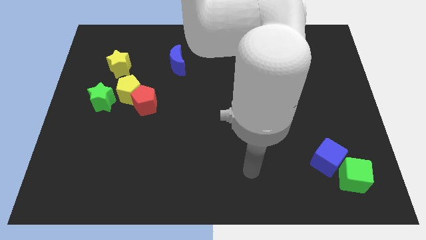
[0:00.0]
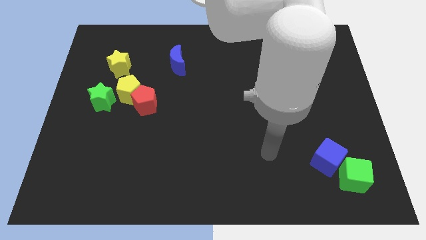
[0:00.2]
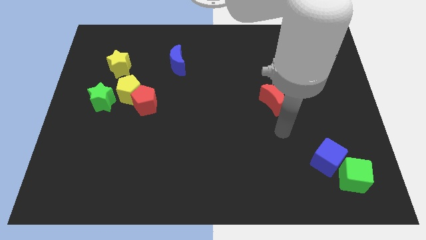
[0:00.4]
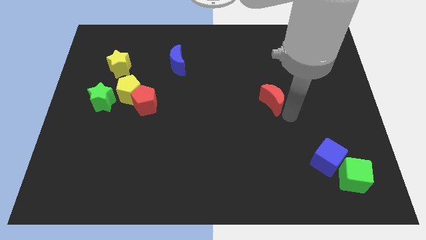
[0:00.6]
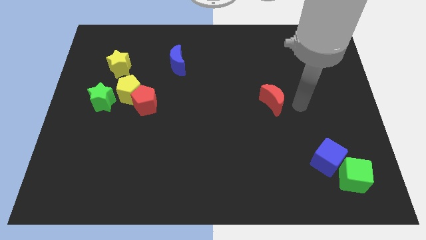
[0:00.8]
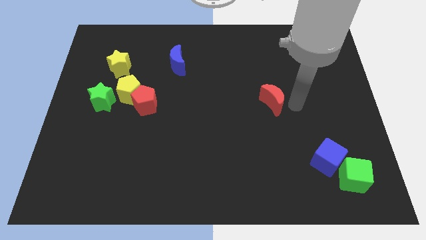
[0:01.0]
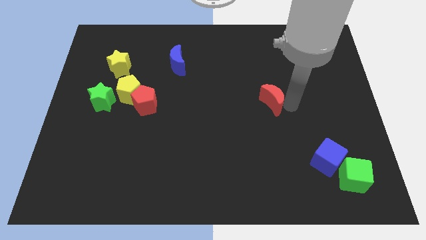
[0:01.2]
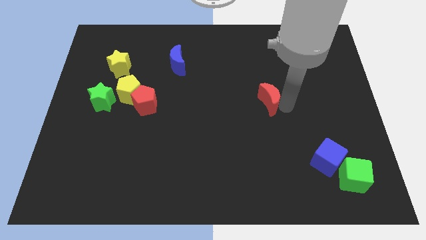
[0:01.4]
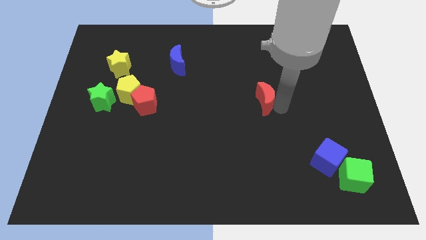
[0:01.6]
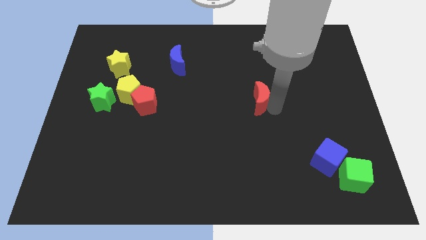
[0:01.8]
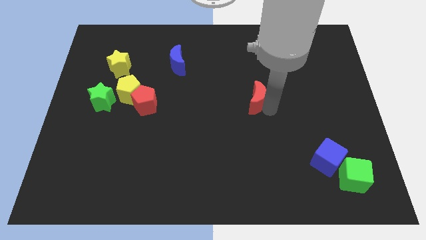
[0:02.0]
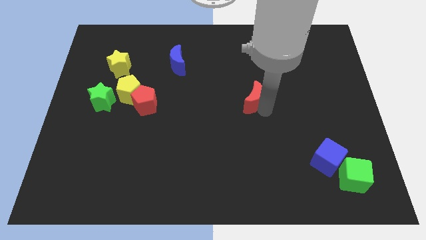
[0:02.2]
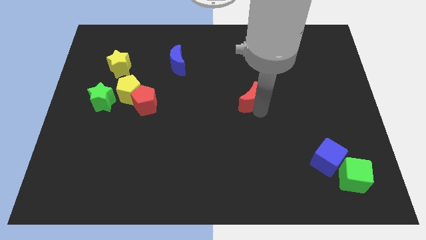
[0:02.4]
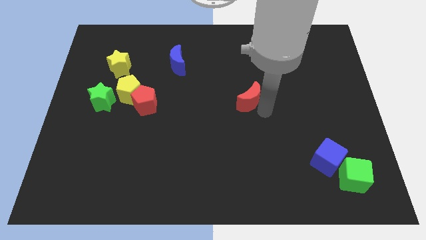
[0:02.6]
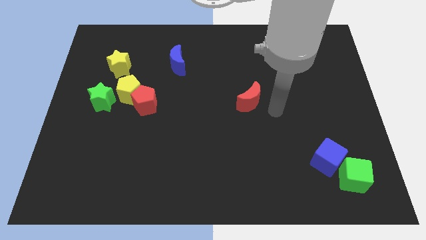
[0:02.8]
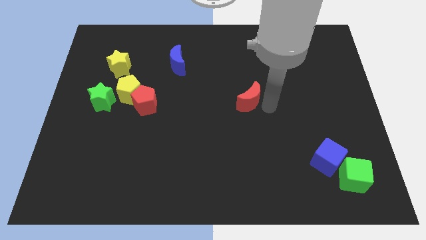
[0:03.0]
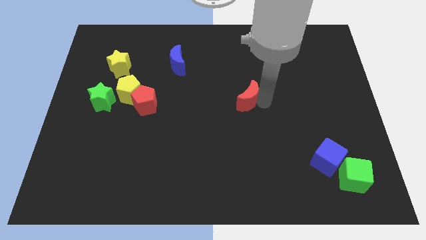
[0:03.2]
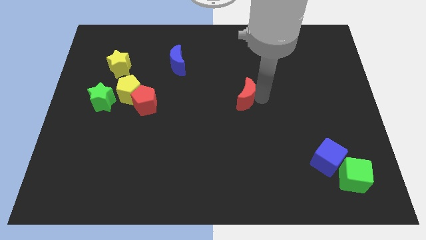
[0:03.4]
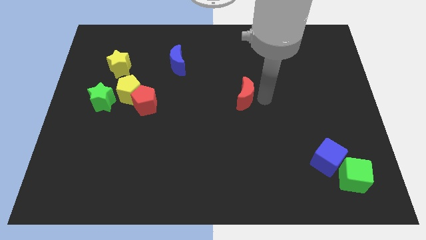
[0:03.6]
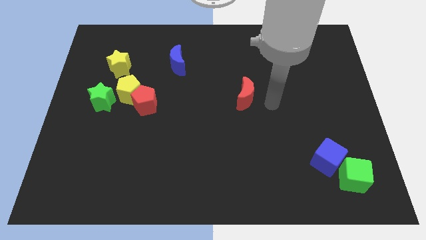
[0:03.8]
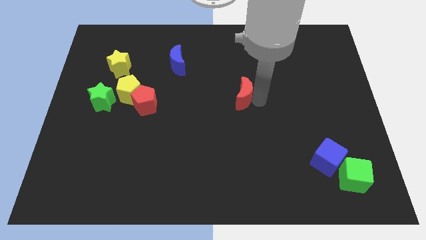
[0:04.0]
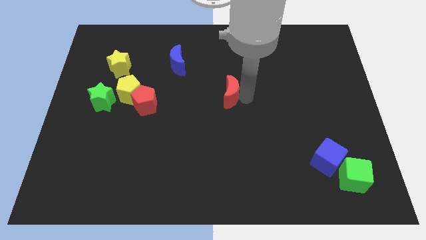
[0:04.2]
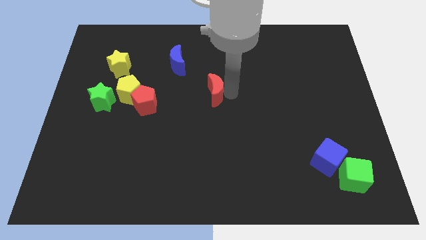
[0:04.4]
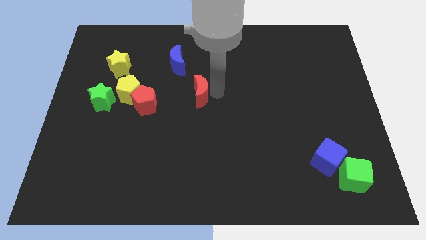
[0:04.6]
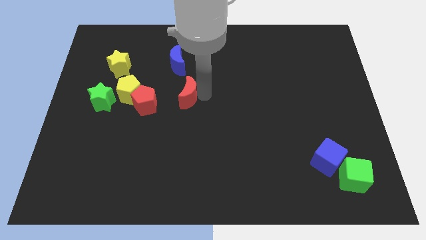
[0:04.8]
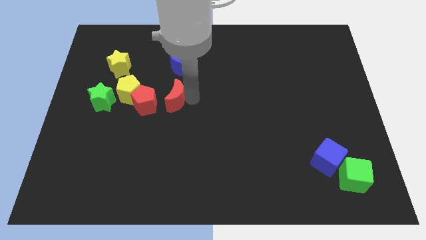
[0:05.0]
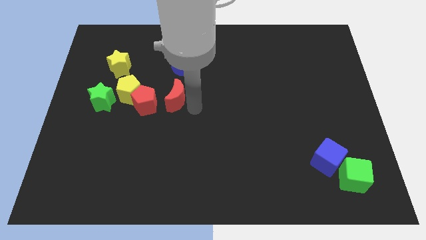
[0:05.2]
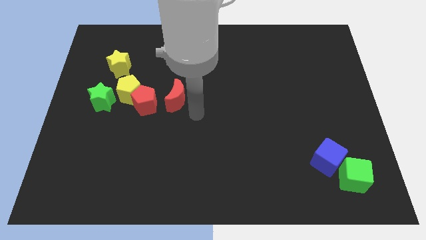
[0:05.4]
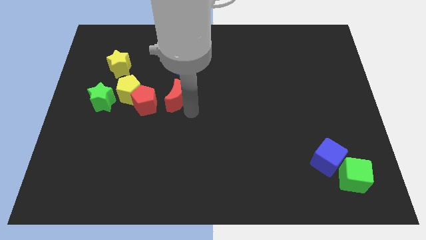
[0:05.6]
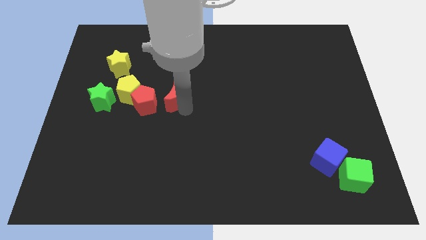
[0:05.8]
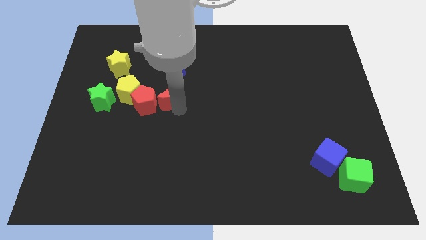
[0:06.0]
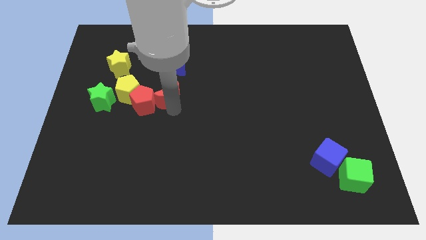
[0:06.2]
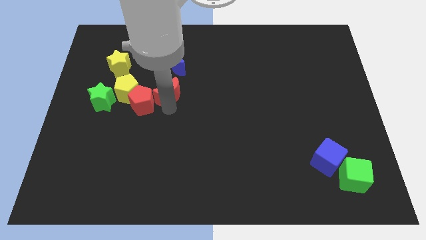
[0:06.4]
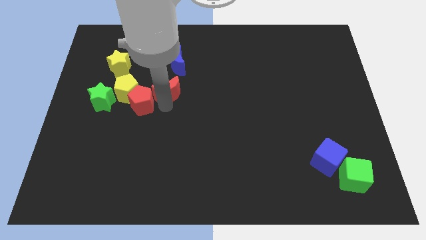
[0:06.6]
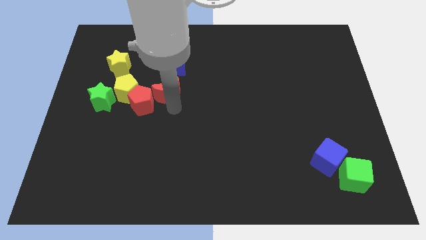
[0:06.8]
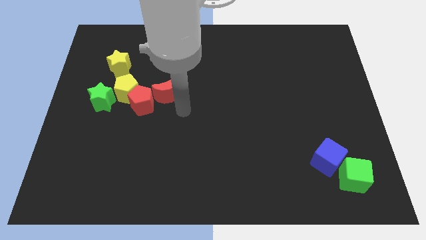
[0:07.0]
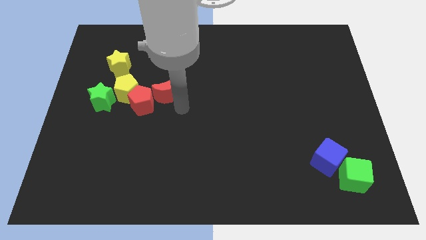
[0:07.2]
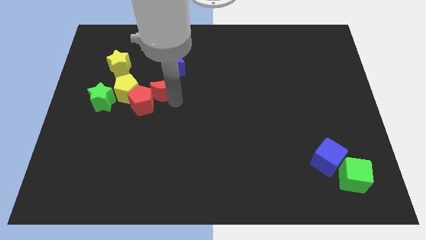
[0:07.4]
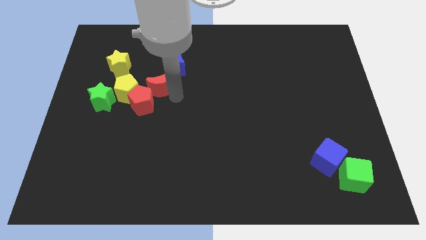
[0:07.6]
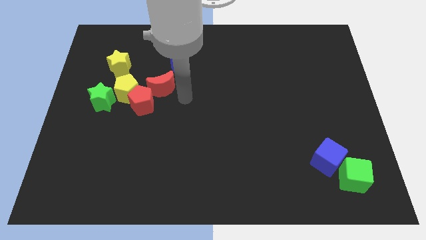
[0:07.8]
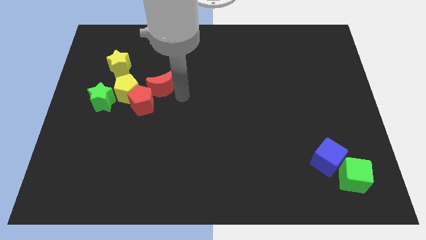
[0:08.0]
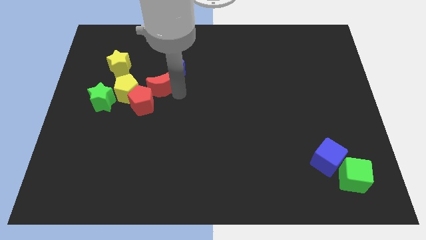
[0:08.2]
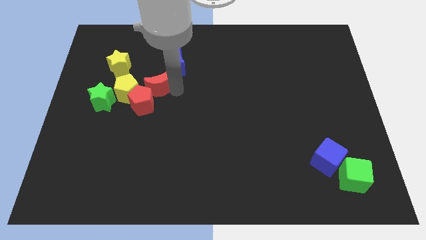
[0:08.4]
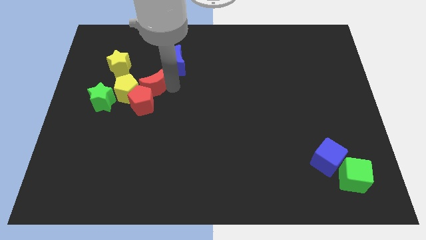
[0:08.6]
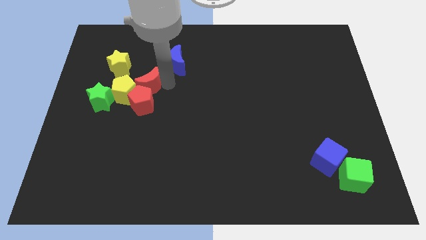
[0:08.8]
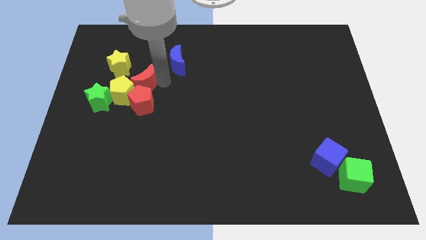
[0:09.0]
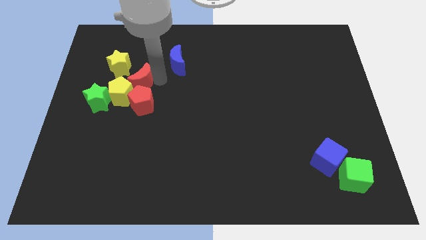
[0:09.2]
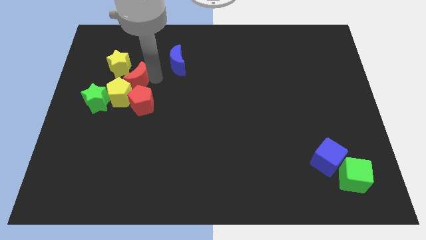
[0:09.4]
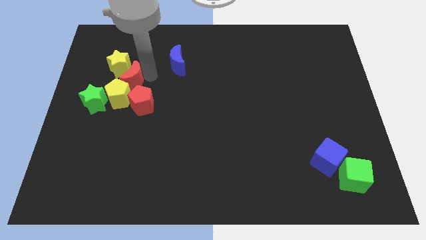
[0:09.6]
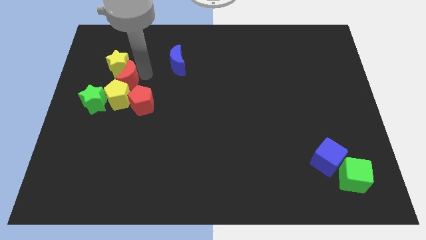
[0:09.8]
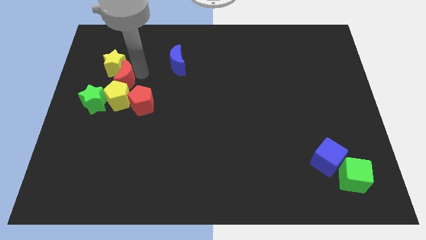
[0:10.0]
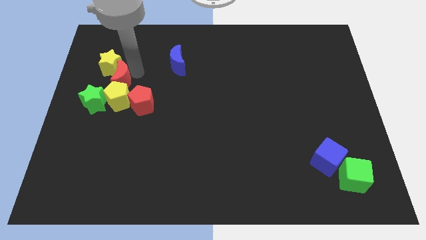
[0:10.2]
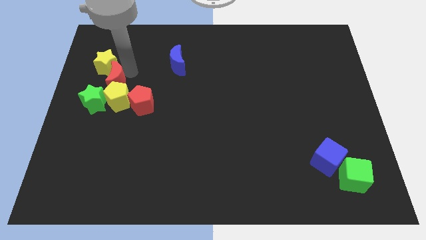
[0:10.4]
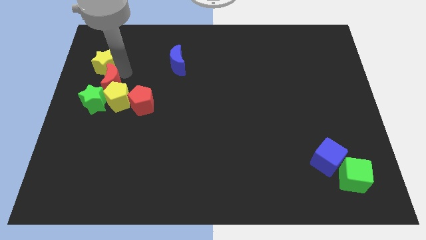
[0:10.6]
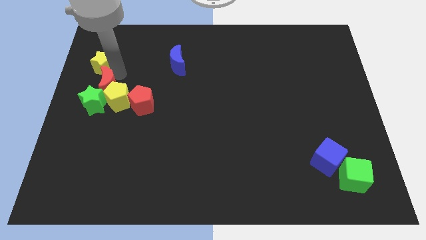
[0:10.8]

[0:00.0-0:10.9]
move the red moon to the left side of the board

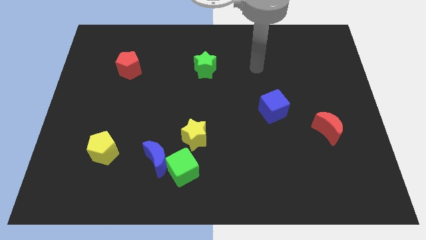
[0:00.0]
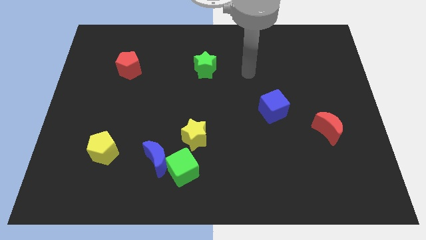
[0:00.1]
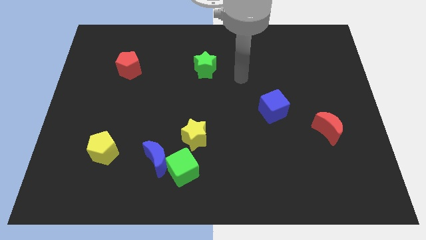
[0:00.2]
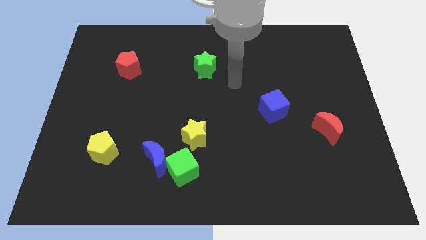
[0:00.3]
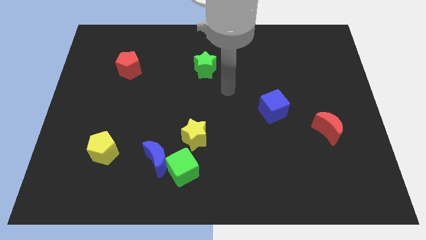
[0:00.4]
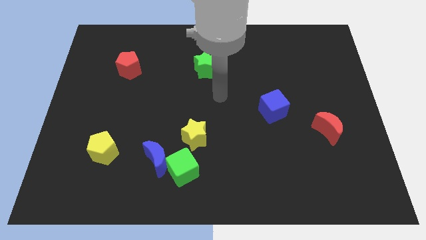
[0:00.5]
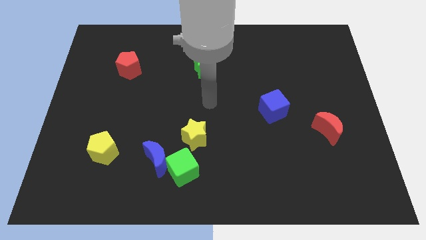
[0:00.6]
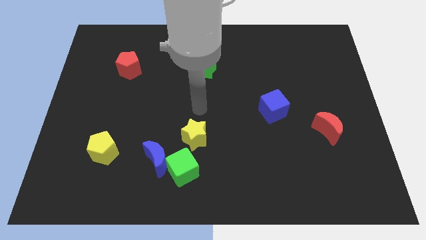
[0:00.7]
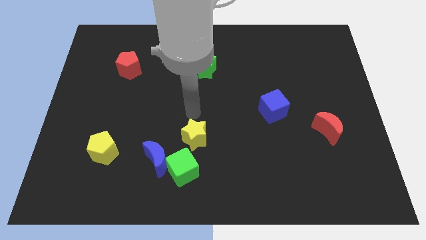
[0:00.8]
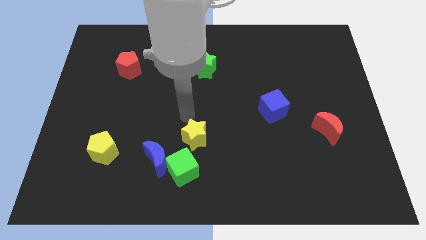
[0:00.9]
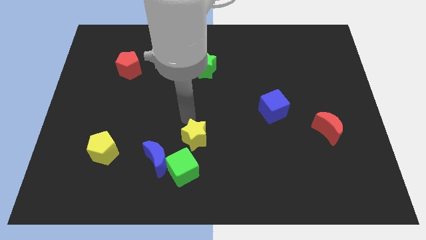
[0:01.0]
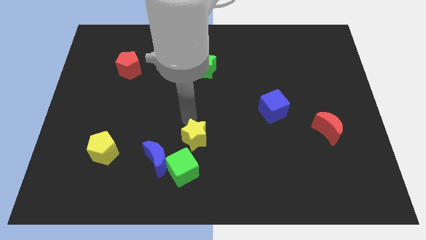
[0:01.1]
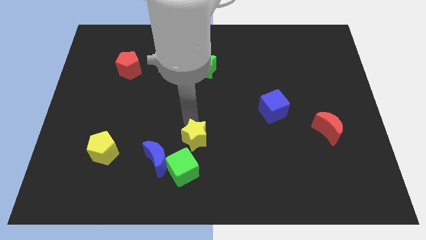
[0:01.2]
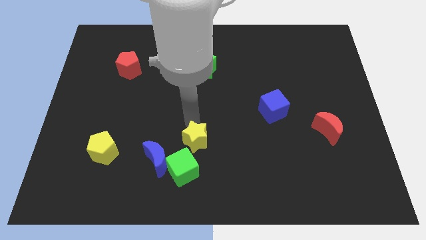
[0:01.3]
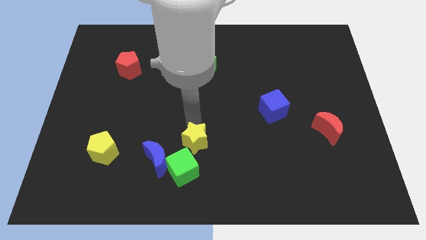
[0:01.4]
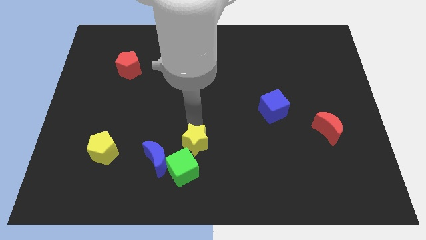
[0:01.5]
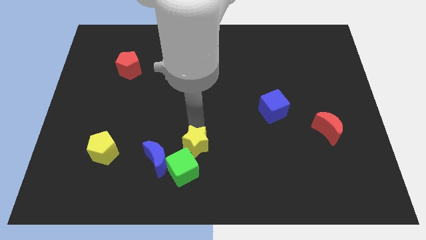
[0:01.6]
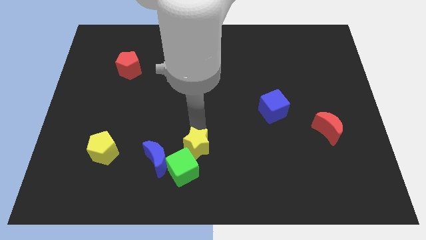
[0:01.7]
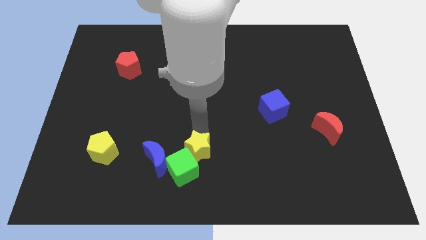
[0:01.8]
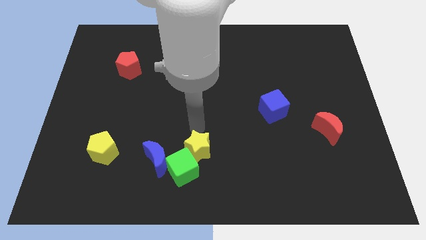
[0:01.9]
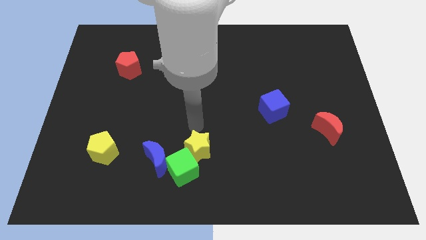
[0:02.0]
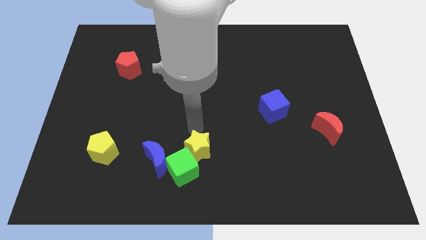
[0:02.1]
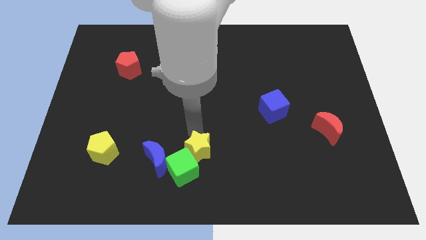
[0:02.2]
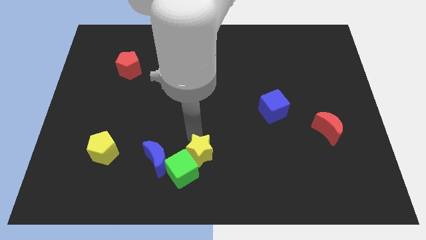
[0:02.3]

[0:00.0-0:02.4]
move the yellow star to the bottom side

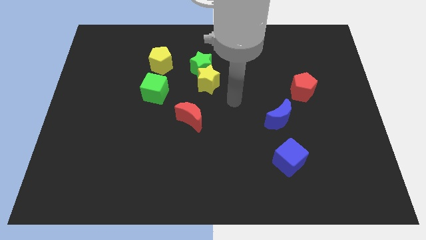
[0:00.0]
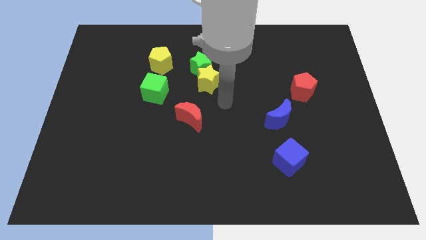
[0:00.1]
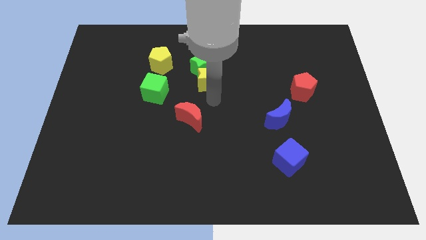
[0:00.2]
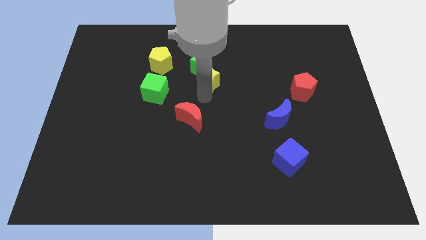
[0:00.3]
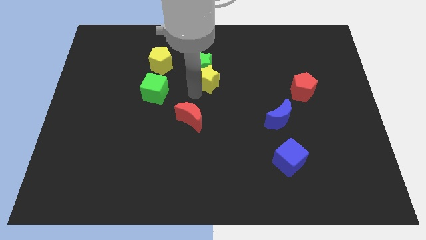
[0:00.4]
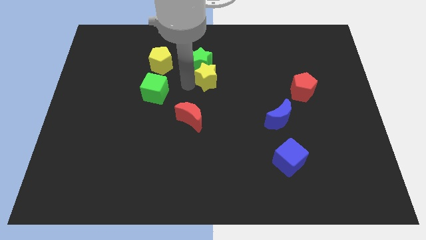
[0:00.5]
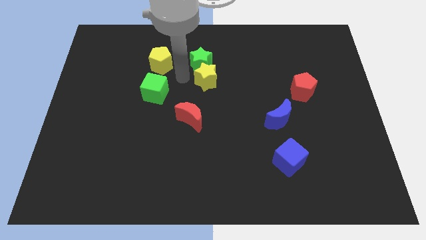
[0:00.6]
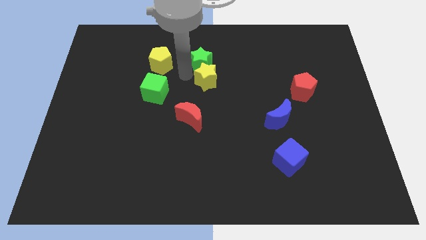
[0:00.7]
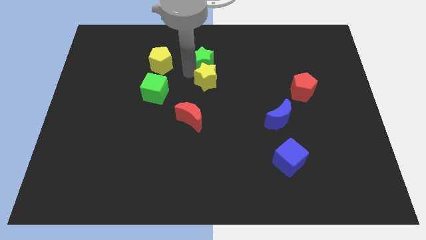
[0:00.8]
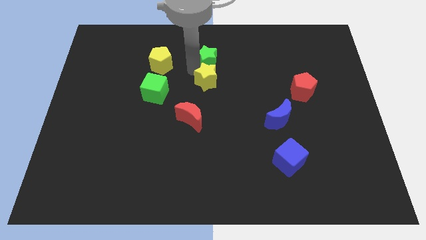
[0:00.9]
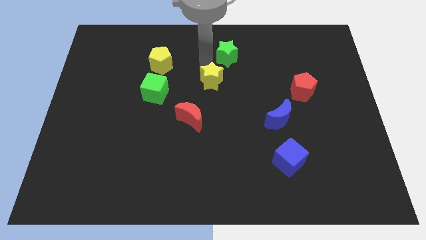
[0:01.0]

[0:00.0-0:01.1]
put the green star to the top side
